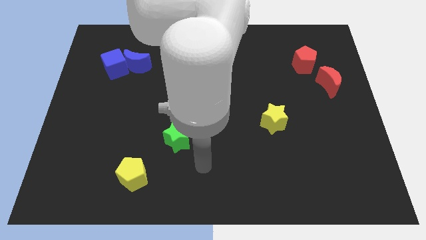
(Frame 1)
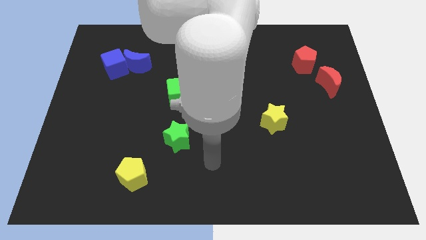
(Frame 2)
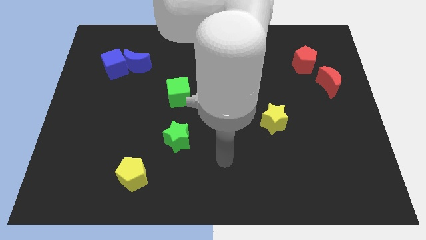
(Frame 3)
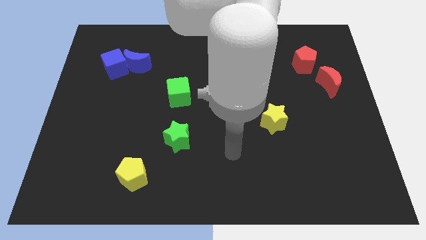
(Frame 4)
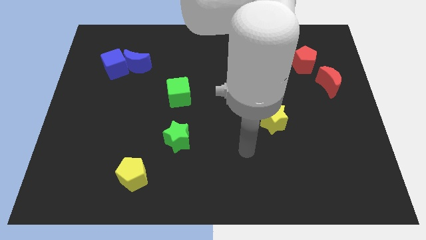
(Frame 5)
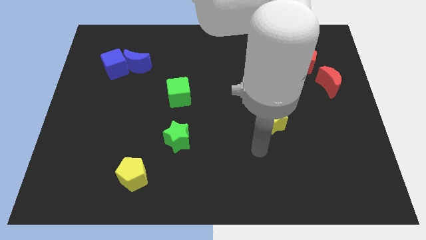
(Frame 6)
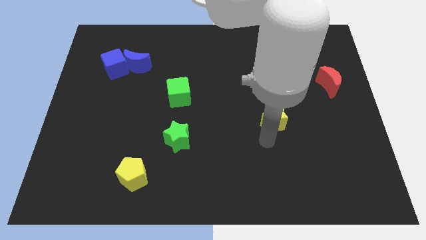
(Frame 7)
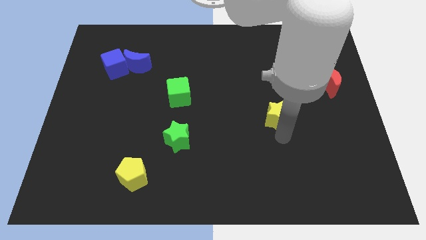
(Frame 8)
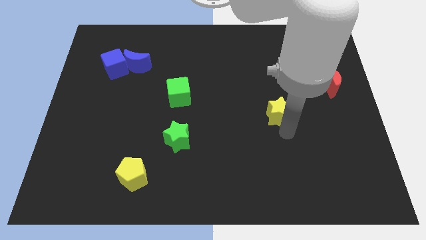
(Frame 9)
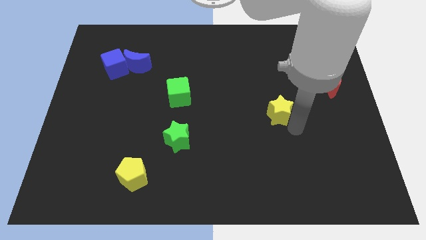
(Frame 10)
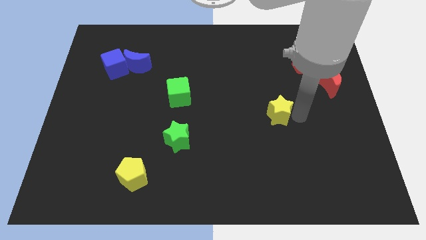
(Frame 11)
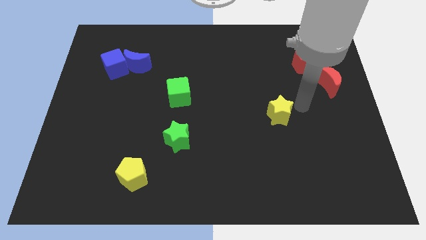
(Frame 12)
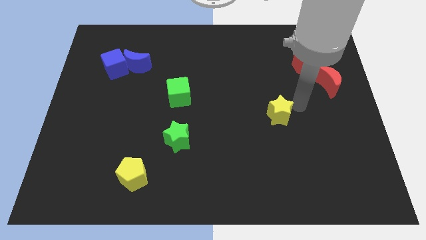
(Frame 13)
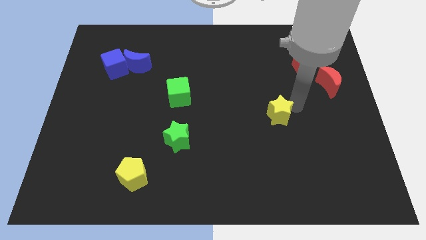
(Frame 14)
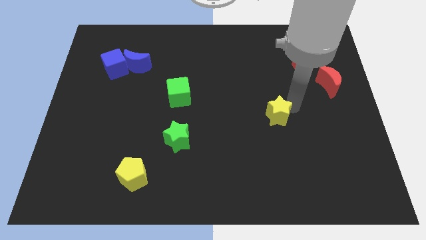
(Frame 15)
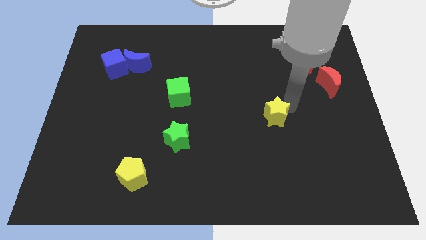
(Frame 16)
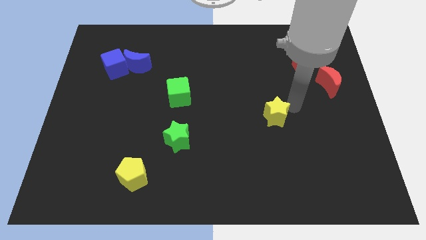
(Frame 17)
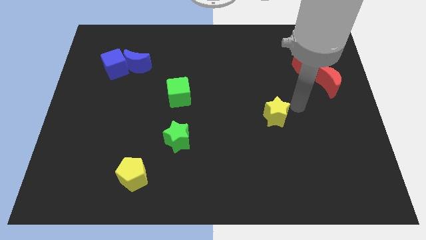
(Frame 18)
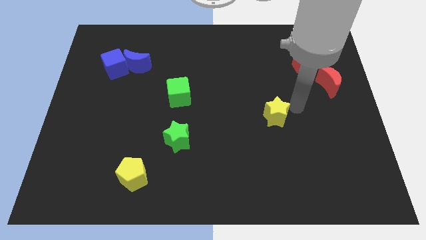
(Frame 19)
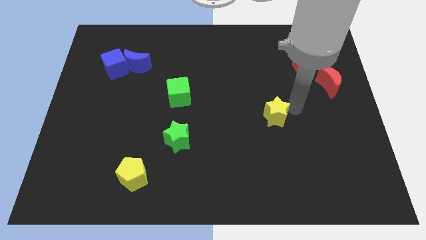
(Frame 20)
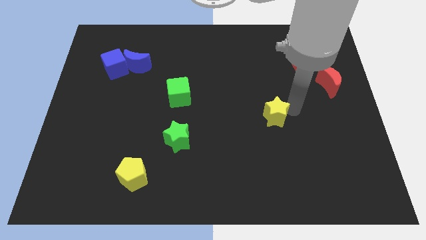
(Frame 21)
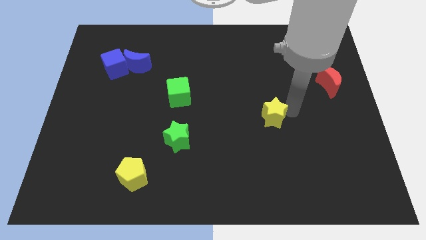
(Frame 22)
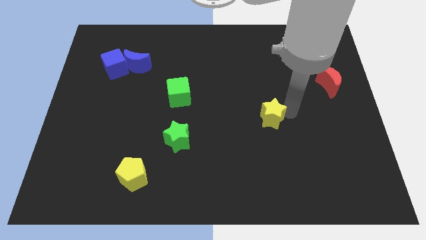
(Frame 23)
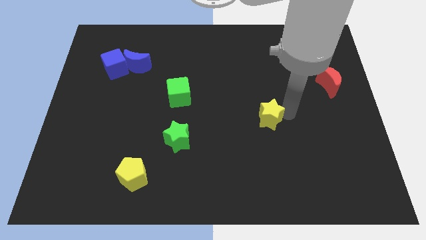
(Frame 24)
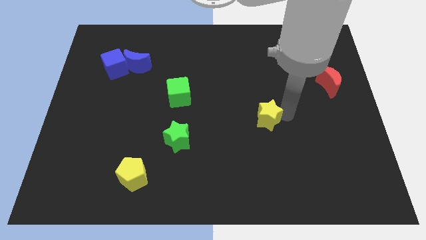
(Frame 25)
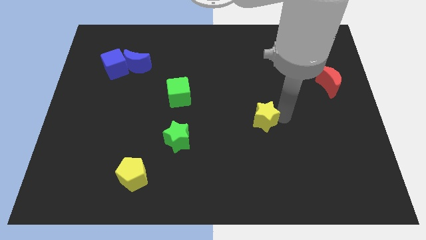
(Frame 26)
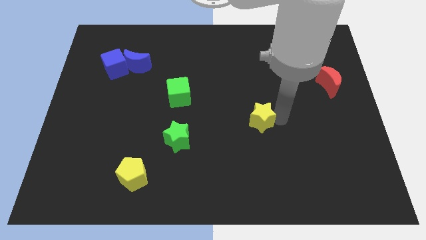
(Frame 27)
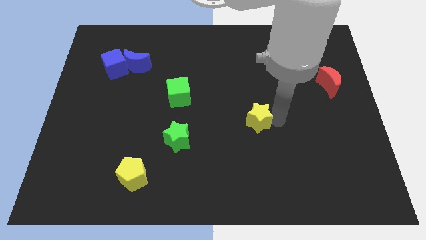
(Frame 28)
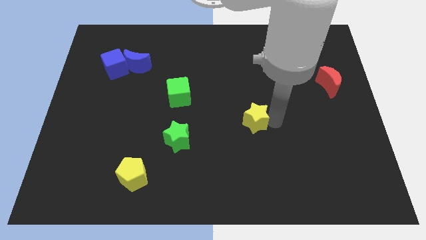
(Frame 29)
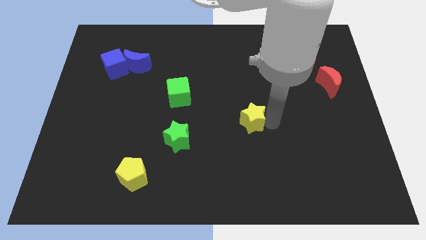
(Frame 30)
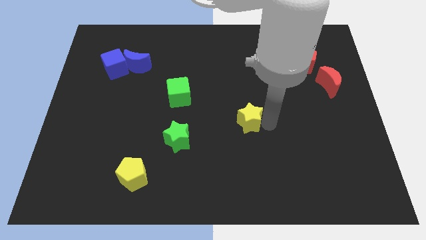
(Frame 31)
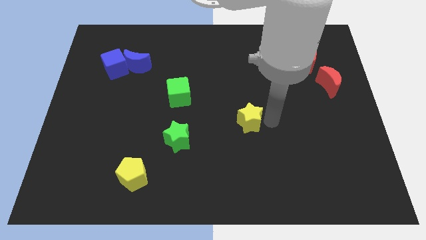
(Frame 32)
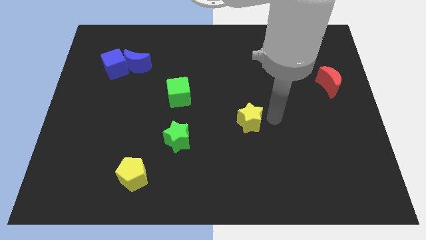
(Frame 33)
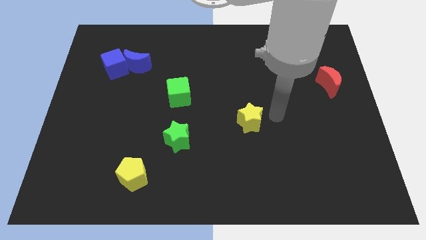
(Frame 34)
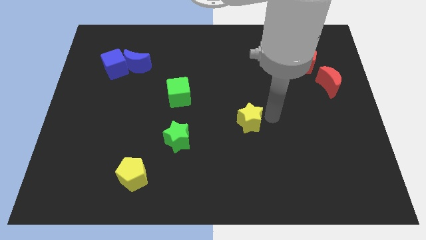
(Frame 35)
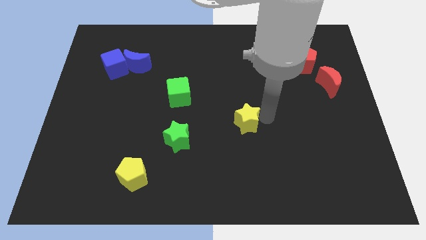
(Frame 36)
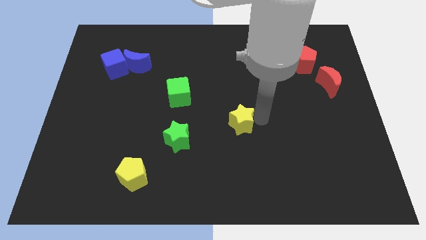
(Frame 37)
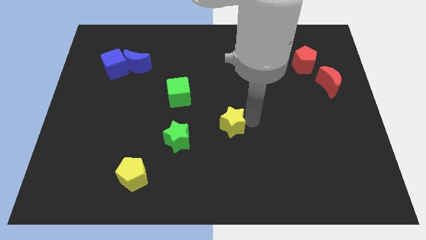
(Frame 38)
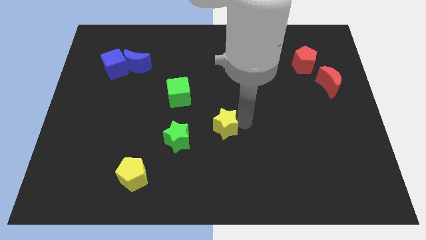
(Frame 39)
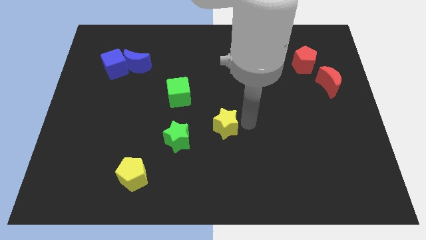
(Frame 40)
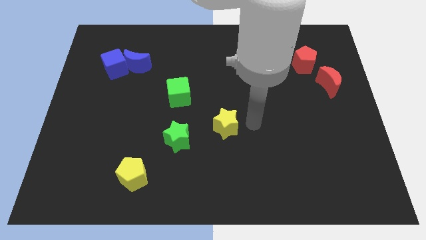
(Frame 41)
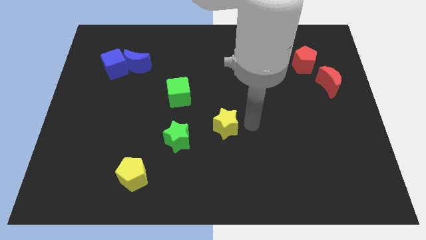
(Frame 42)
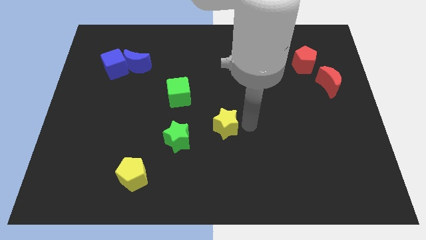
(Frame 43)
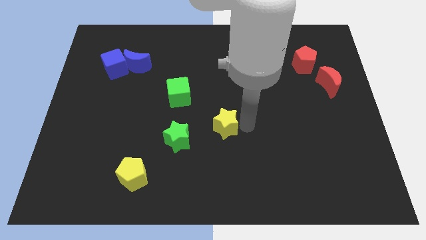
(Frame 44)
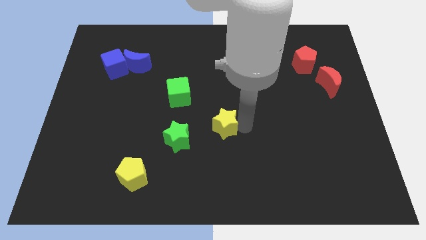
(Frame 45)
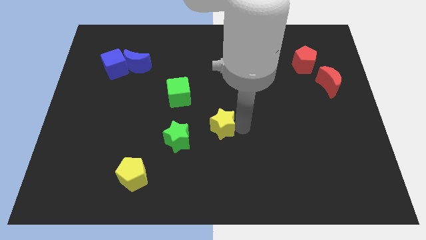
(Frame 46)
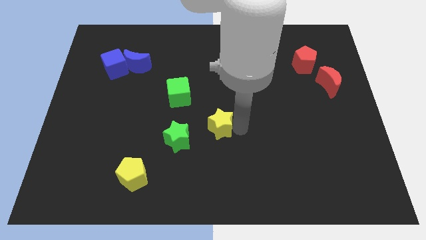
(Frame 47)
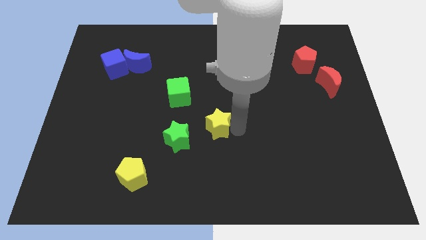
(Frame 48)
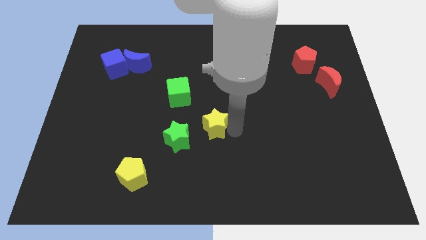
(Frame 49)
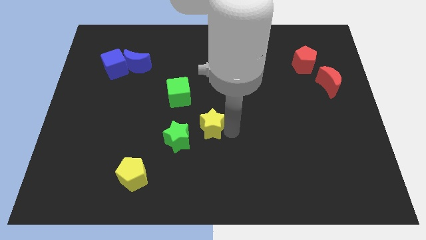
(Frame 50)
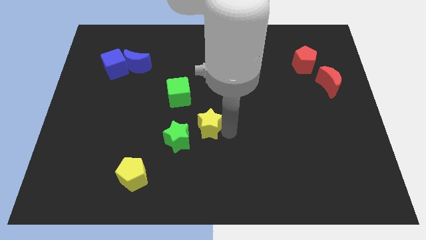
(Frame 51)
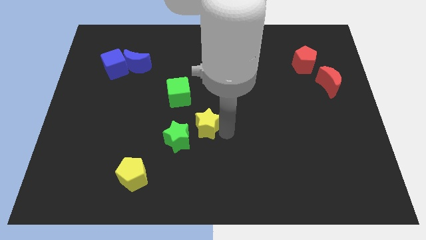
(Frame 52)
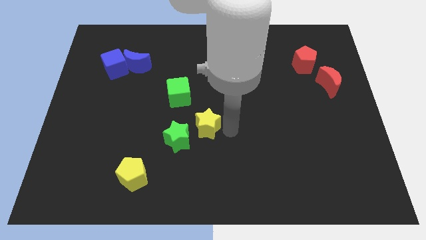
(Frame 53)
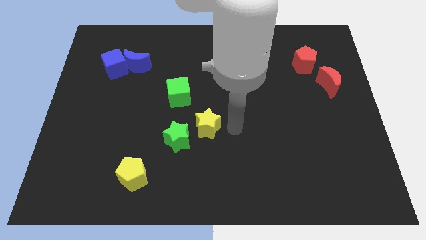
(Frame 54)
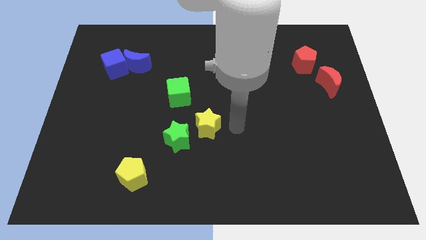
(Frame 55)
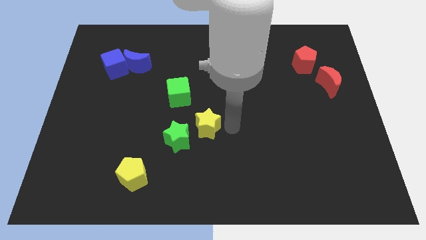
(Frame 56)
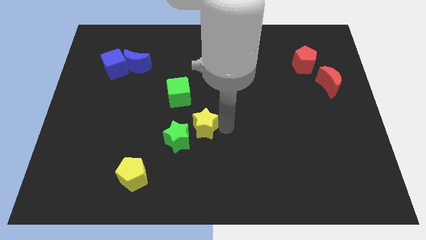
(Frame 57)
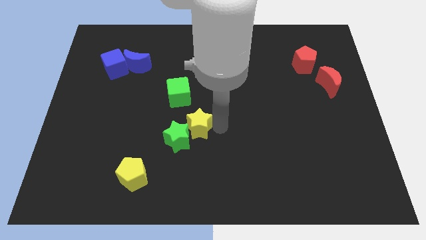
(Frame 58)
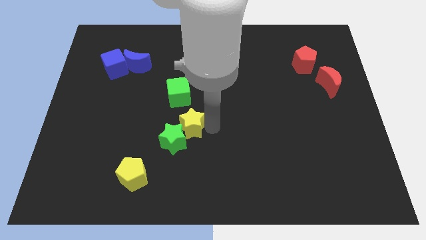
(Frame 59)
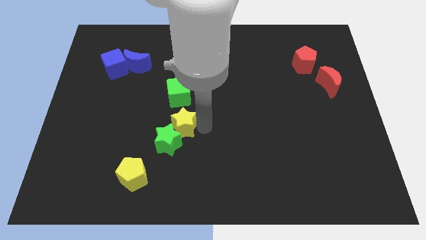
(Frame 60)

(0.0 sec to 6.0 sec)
move the yellow star left

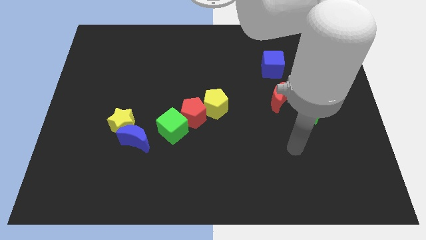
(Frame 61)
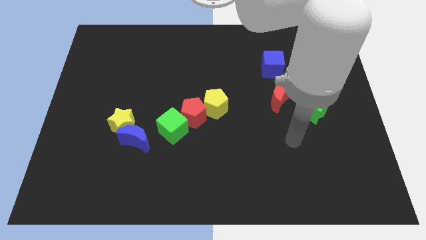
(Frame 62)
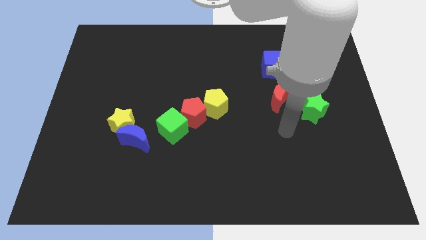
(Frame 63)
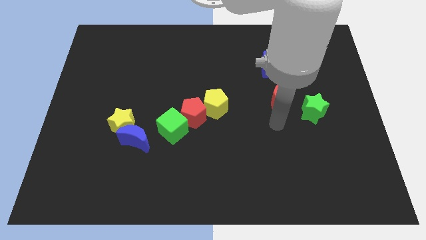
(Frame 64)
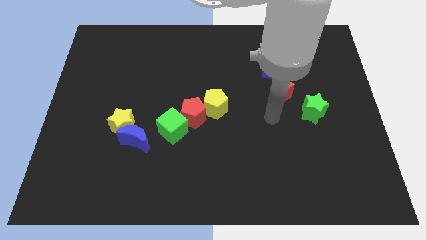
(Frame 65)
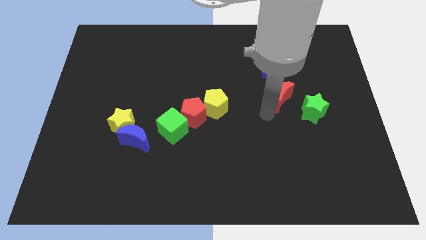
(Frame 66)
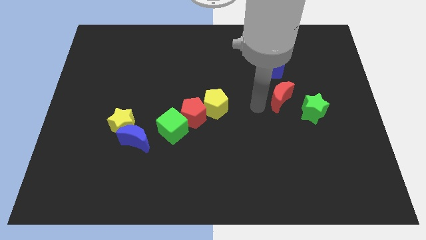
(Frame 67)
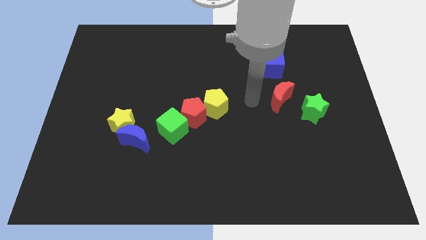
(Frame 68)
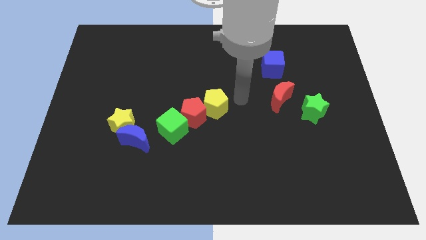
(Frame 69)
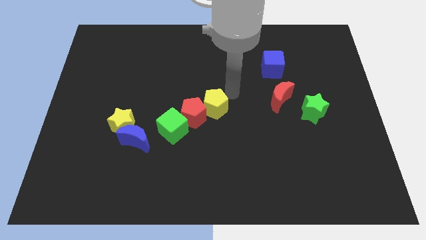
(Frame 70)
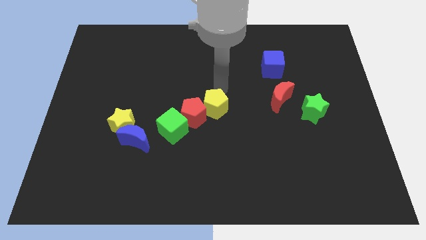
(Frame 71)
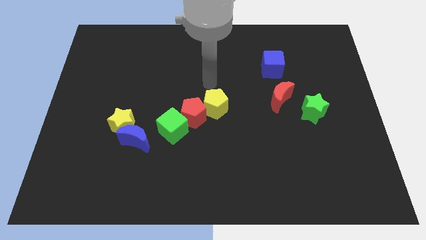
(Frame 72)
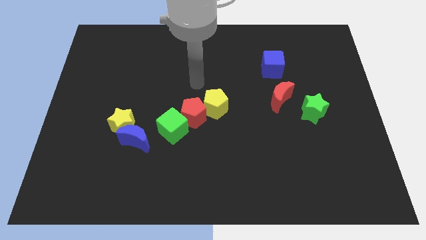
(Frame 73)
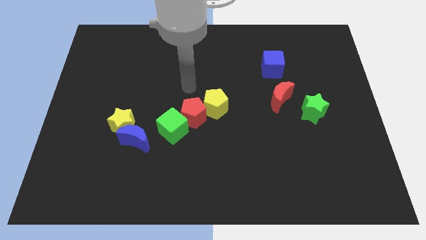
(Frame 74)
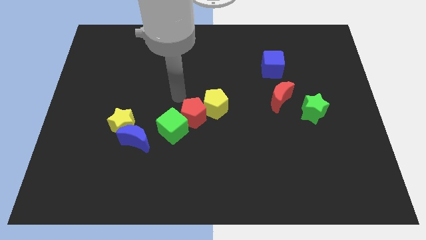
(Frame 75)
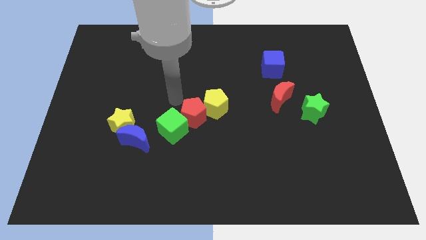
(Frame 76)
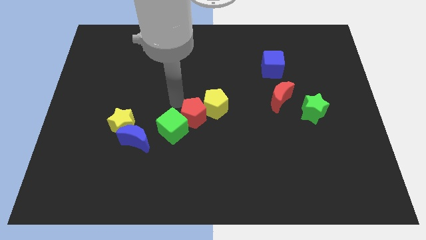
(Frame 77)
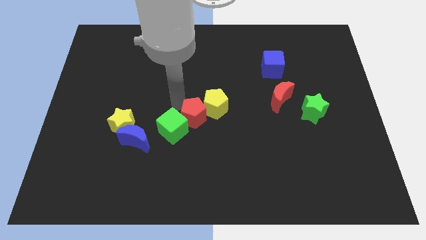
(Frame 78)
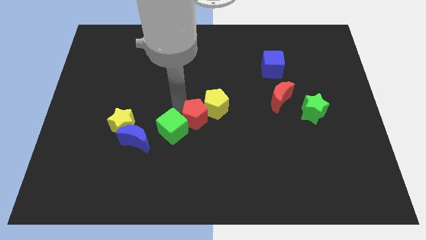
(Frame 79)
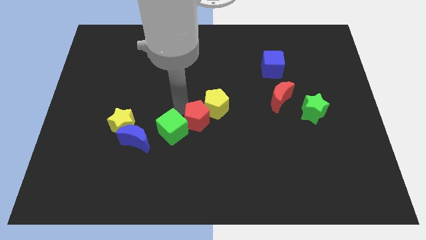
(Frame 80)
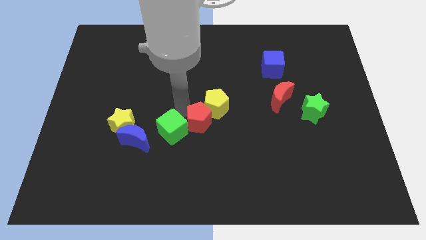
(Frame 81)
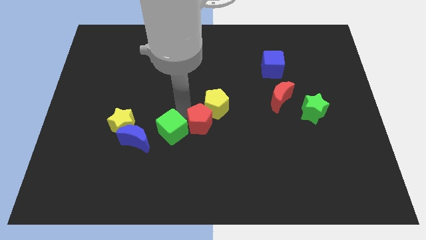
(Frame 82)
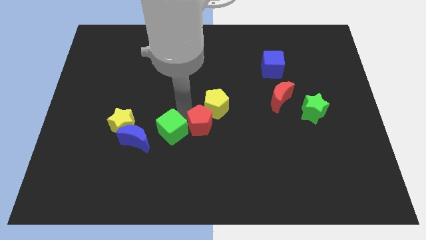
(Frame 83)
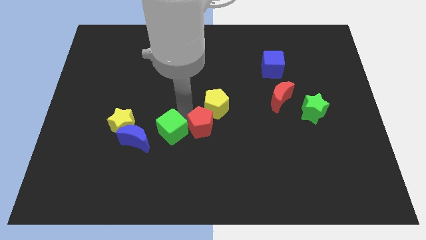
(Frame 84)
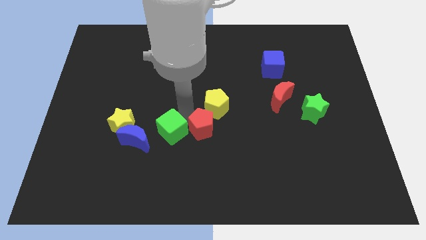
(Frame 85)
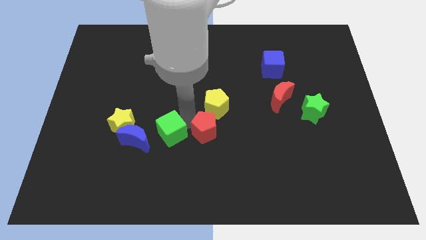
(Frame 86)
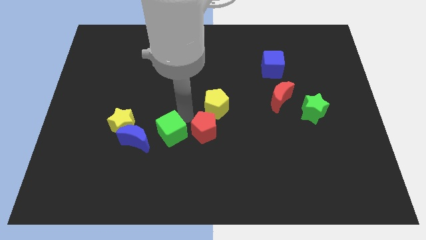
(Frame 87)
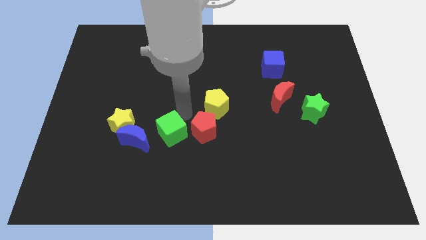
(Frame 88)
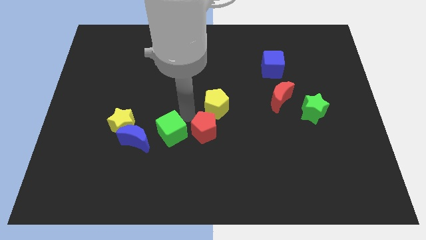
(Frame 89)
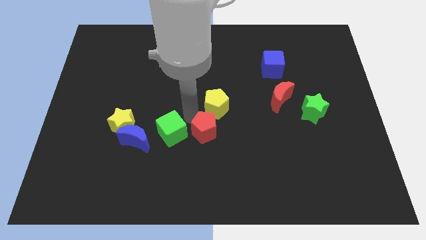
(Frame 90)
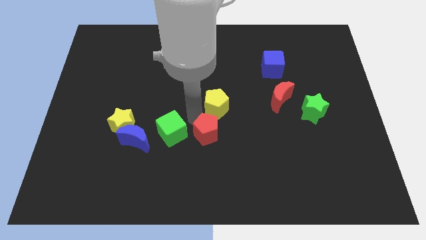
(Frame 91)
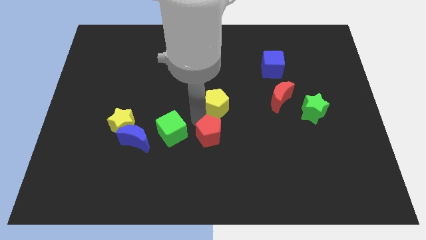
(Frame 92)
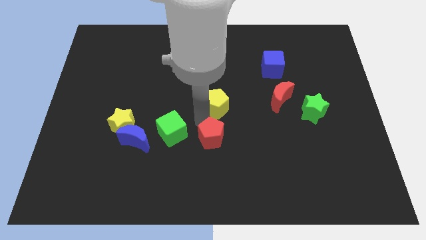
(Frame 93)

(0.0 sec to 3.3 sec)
slightly move the red pentagon down and to the right diagonally
